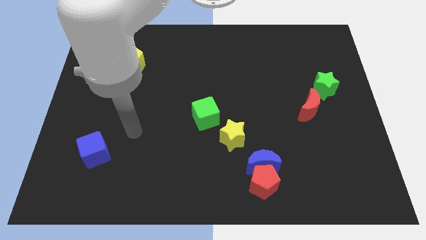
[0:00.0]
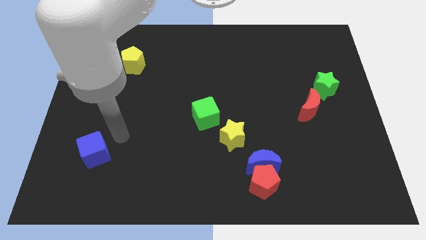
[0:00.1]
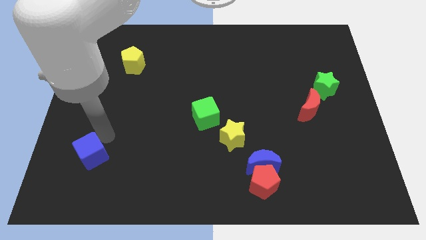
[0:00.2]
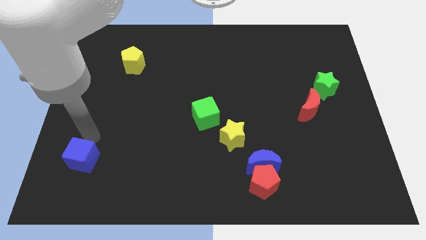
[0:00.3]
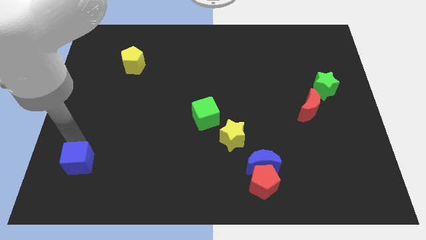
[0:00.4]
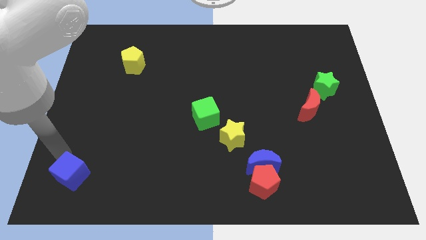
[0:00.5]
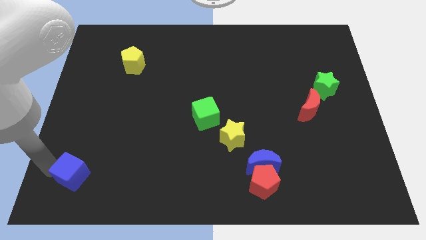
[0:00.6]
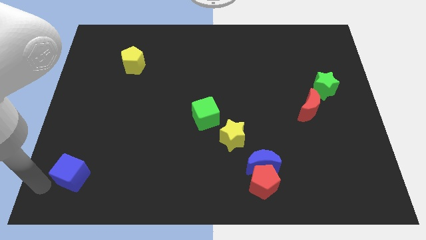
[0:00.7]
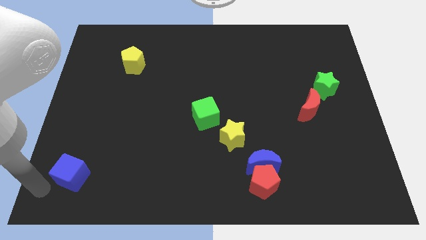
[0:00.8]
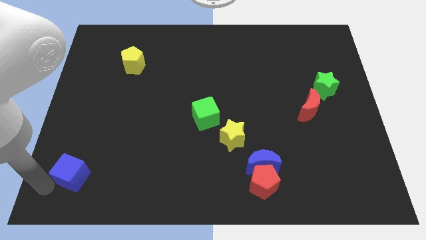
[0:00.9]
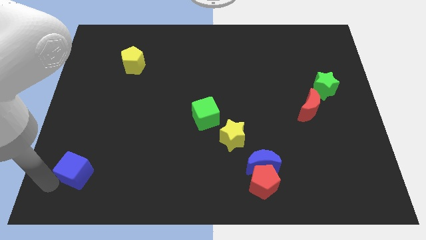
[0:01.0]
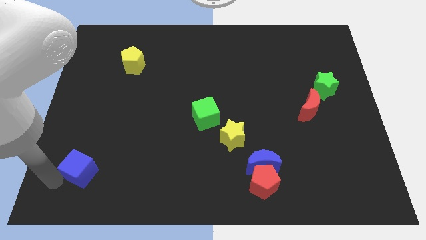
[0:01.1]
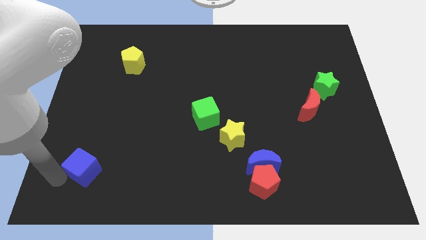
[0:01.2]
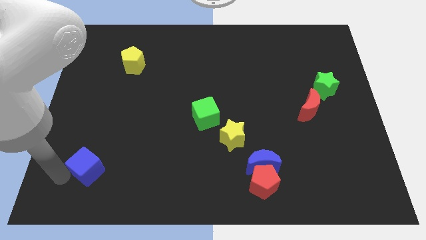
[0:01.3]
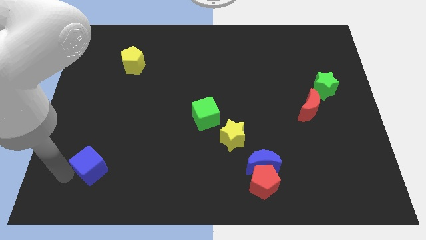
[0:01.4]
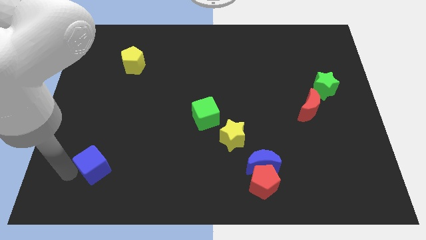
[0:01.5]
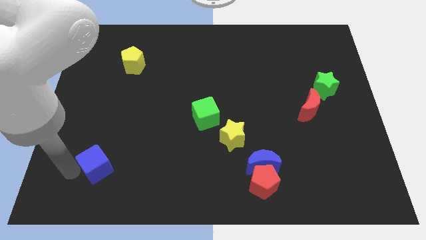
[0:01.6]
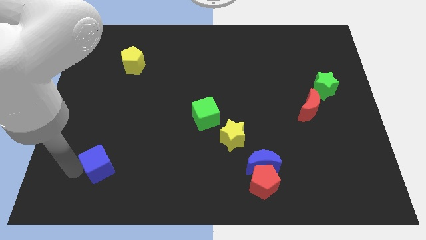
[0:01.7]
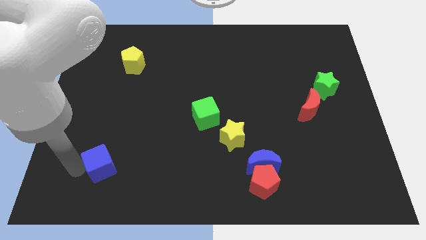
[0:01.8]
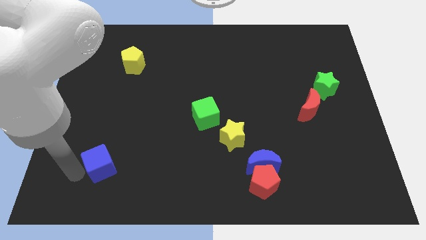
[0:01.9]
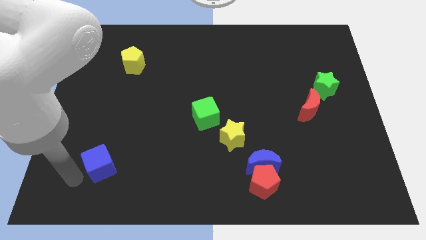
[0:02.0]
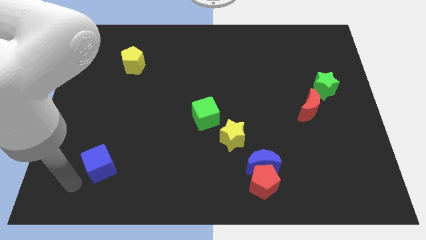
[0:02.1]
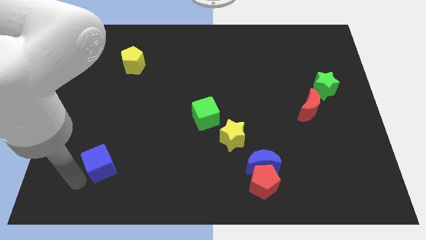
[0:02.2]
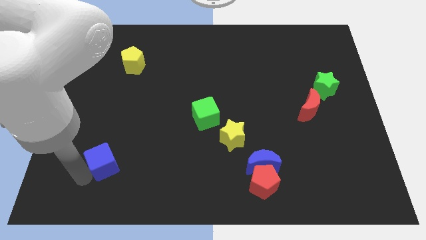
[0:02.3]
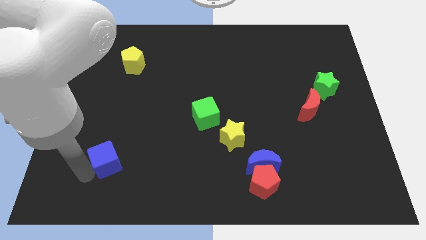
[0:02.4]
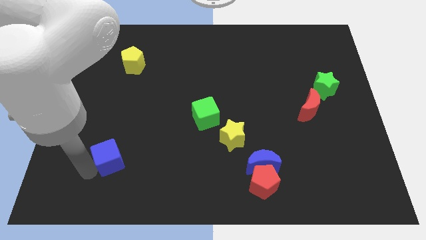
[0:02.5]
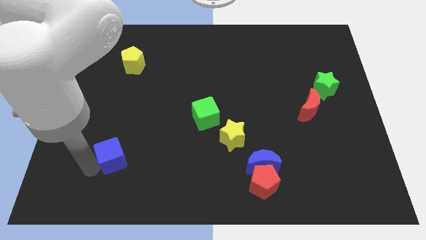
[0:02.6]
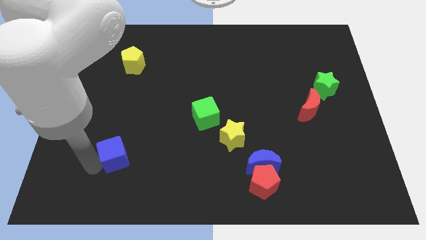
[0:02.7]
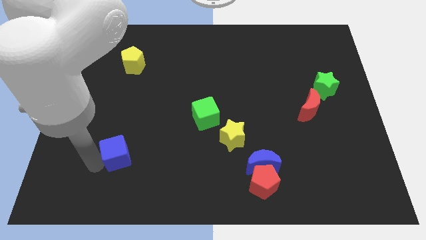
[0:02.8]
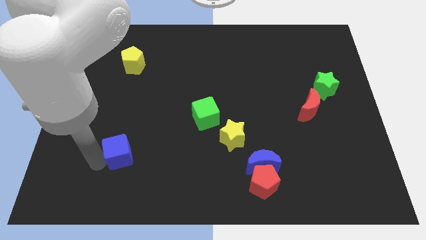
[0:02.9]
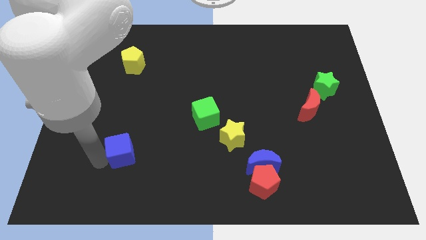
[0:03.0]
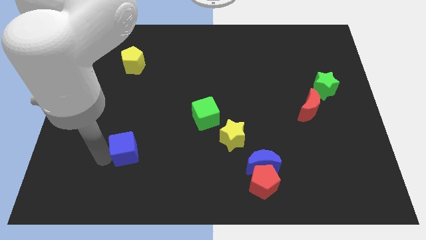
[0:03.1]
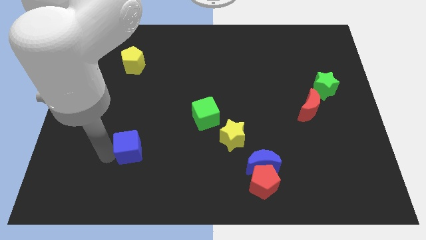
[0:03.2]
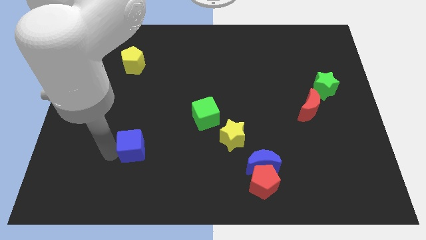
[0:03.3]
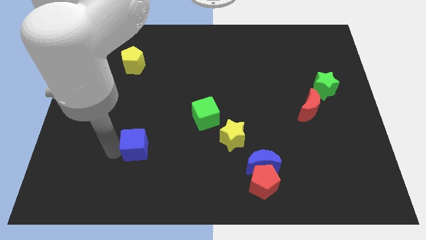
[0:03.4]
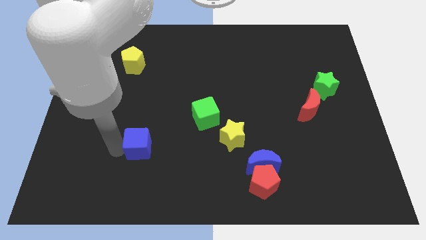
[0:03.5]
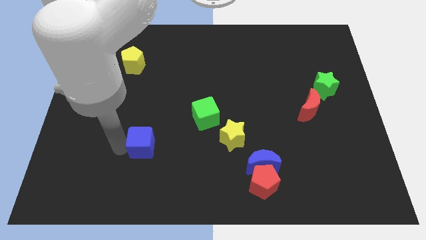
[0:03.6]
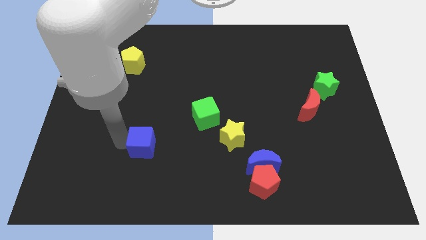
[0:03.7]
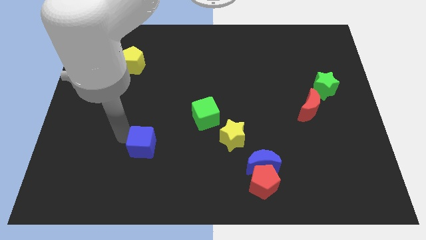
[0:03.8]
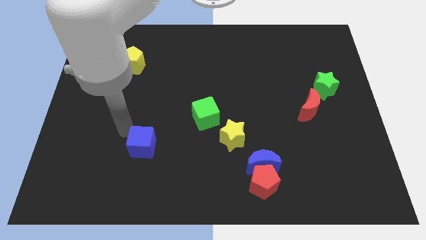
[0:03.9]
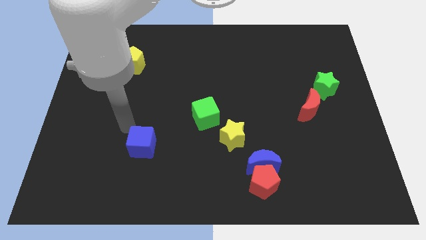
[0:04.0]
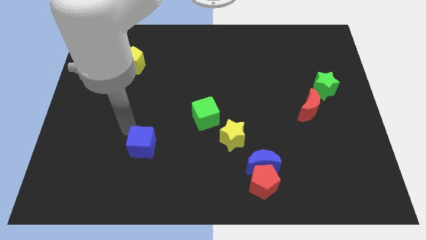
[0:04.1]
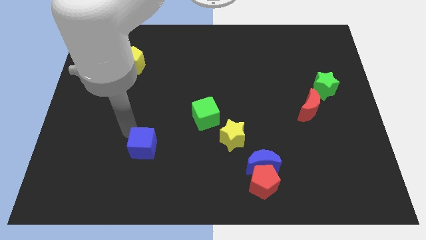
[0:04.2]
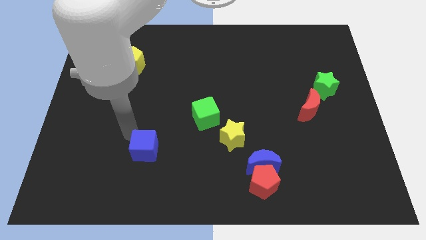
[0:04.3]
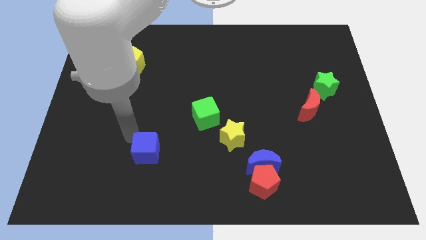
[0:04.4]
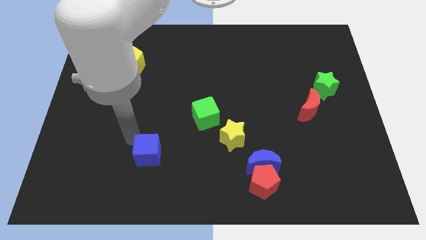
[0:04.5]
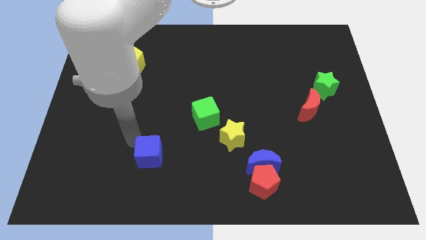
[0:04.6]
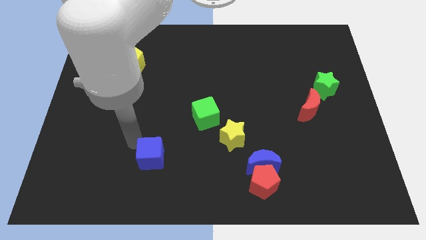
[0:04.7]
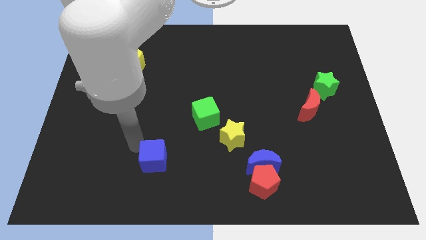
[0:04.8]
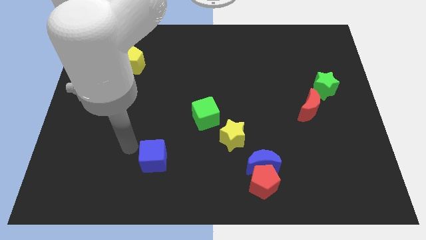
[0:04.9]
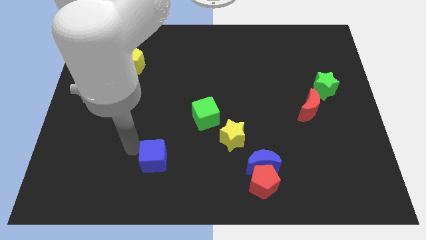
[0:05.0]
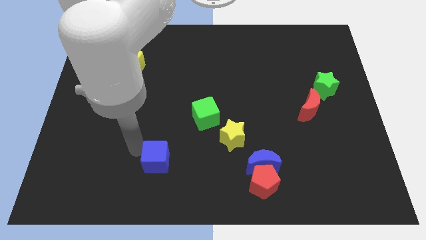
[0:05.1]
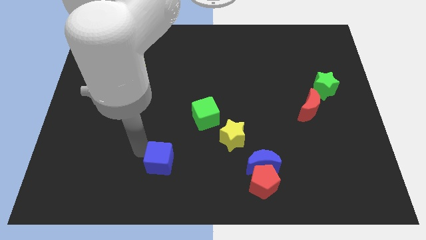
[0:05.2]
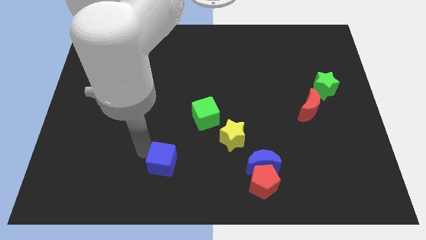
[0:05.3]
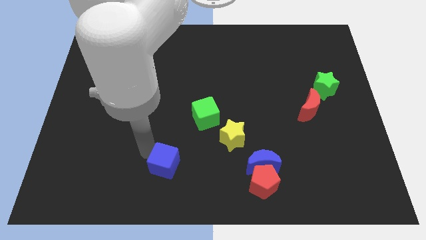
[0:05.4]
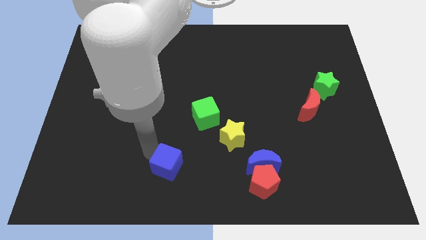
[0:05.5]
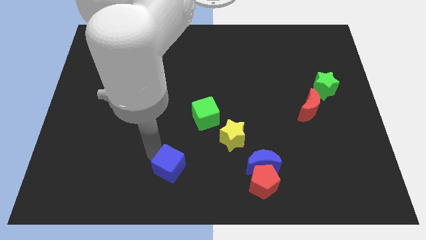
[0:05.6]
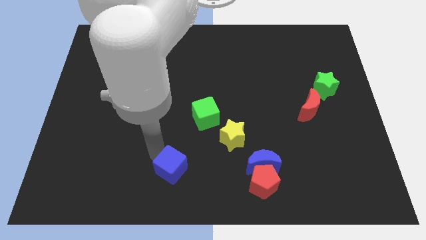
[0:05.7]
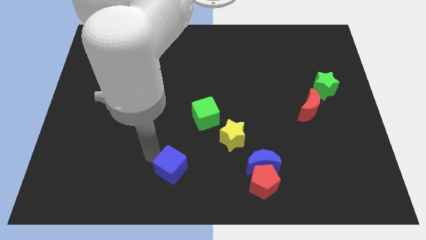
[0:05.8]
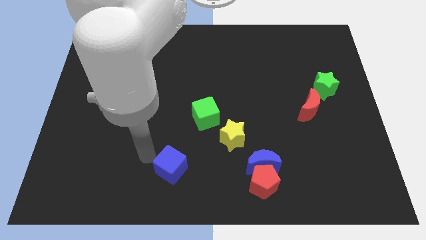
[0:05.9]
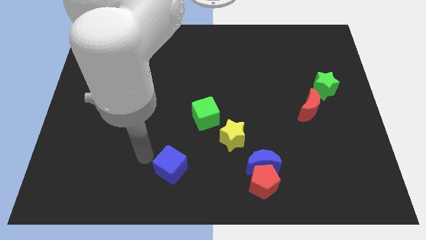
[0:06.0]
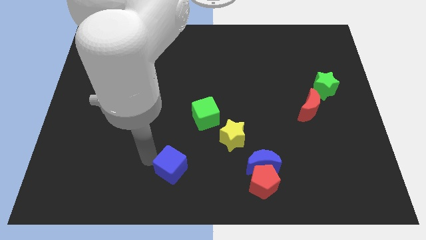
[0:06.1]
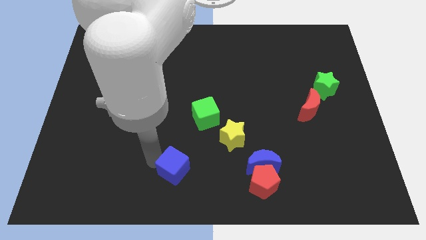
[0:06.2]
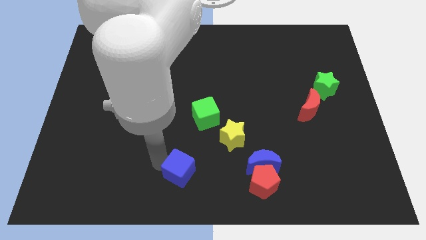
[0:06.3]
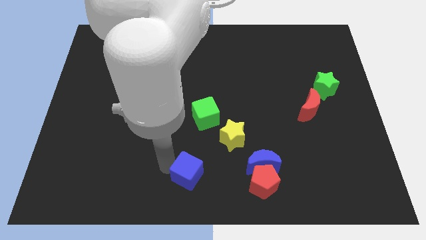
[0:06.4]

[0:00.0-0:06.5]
slide the blue cube to the left of the red pentagon

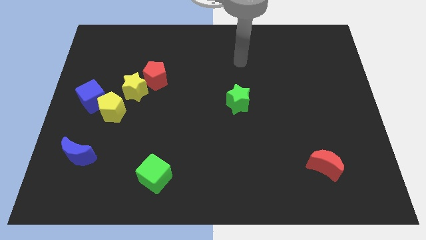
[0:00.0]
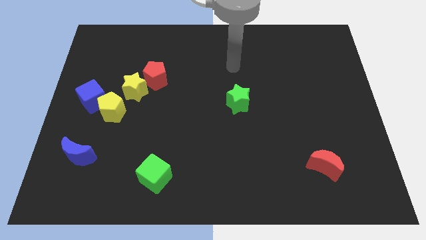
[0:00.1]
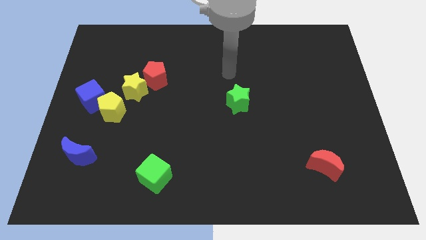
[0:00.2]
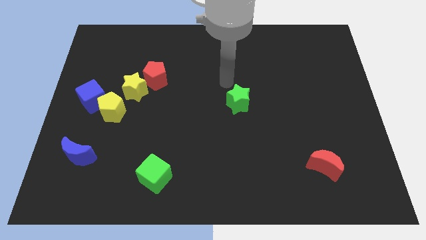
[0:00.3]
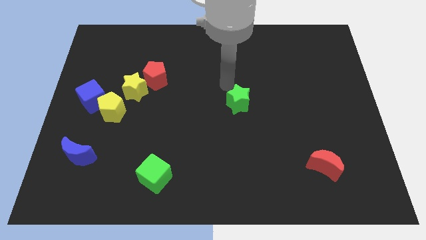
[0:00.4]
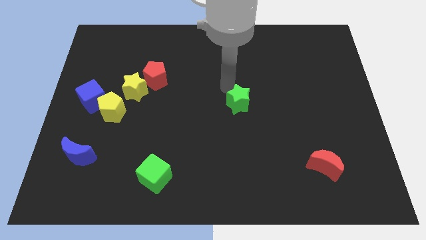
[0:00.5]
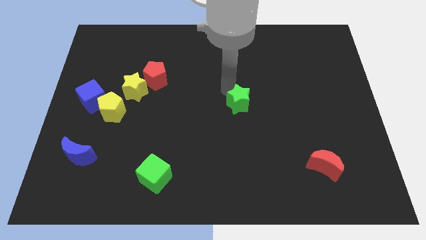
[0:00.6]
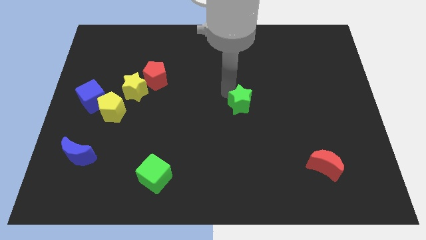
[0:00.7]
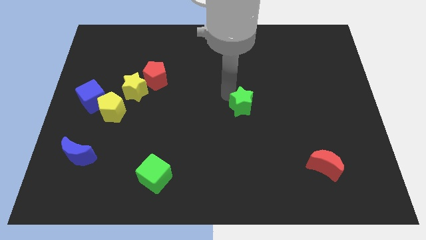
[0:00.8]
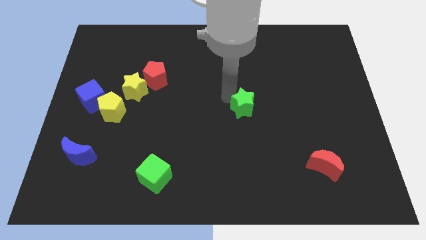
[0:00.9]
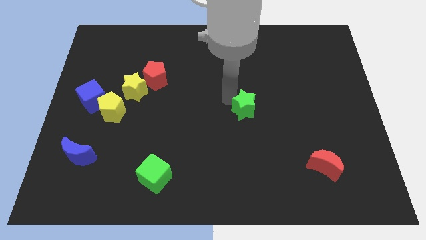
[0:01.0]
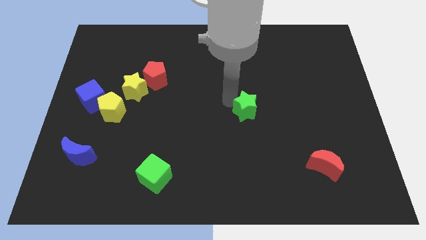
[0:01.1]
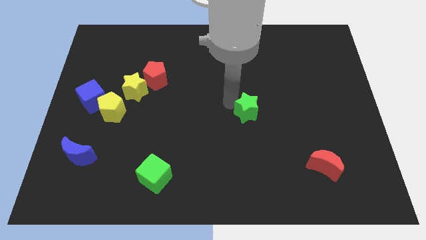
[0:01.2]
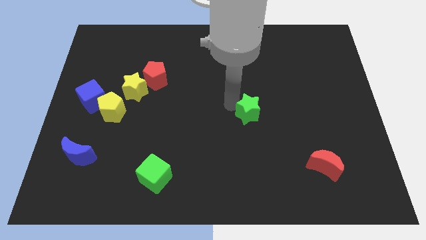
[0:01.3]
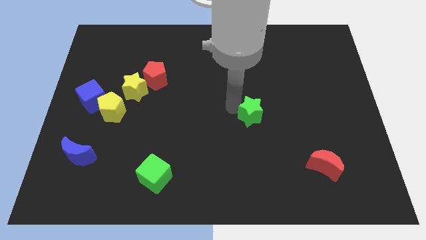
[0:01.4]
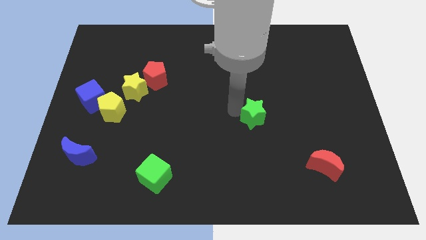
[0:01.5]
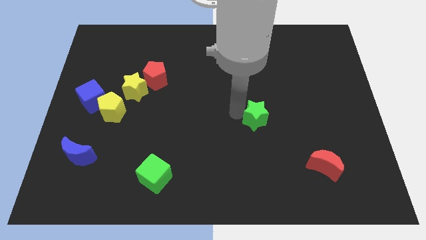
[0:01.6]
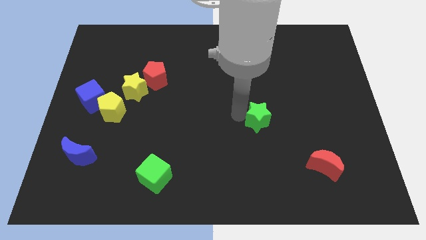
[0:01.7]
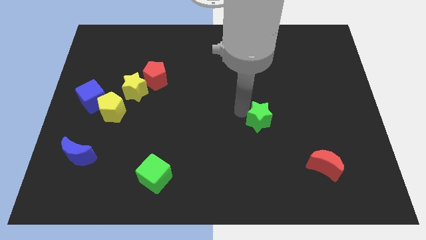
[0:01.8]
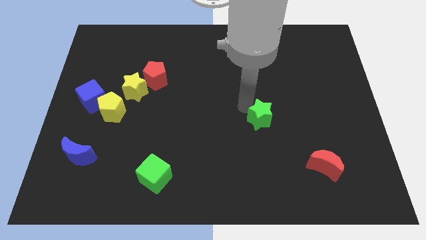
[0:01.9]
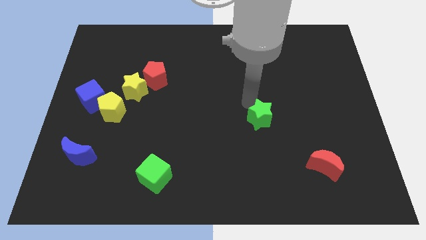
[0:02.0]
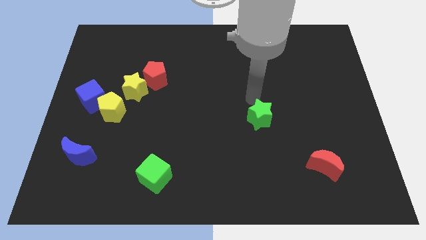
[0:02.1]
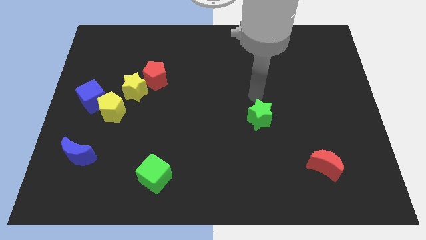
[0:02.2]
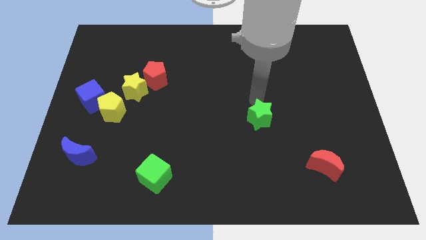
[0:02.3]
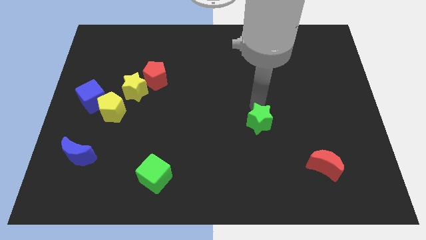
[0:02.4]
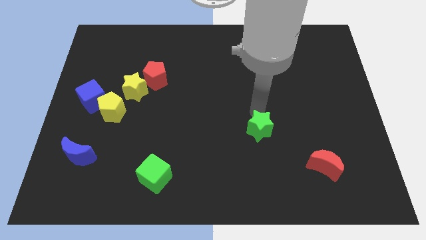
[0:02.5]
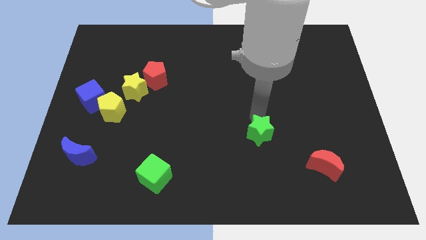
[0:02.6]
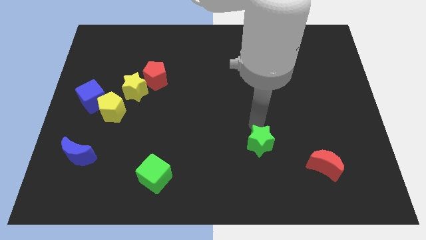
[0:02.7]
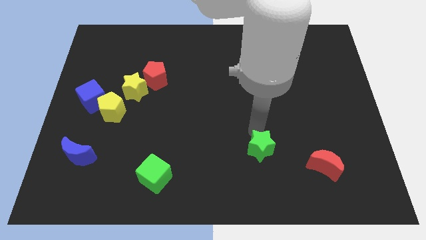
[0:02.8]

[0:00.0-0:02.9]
slide the green star to the left of the red moon
